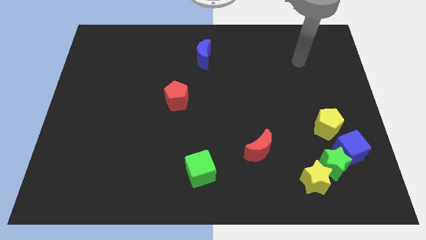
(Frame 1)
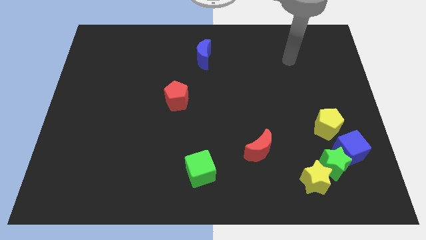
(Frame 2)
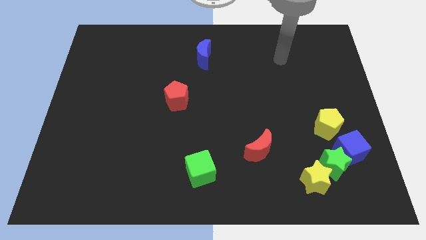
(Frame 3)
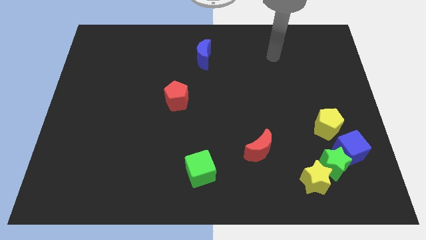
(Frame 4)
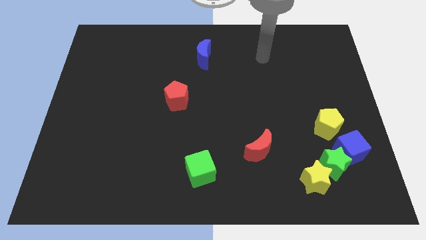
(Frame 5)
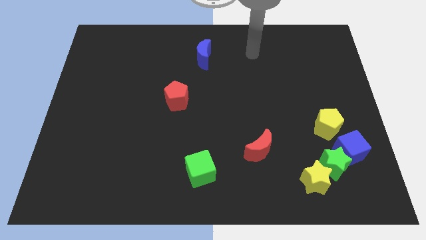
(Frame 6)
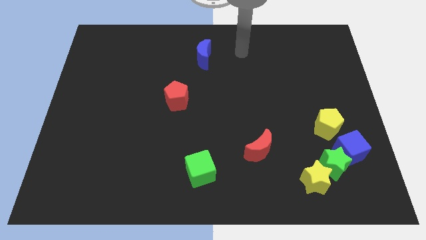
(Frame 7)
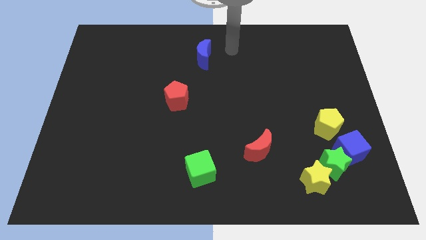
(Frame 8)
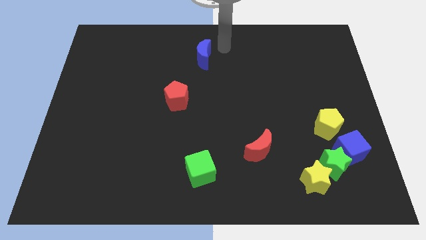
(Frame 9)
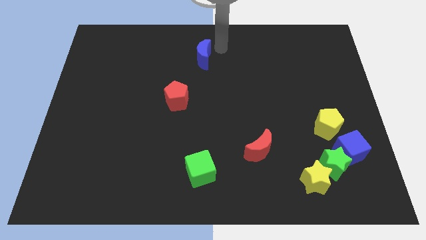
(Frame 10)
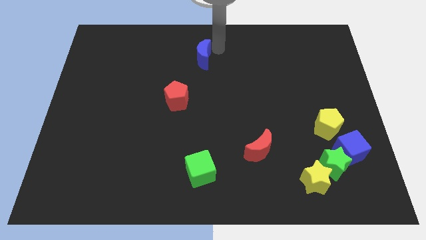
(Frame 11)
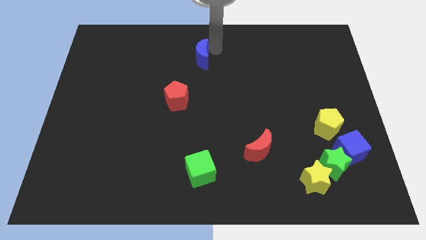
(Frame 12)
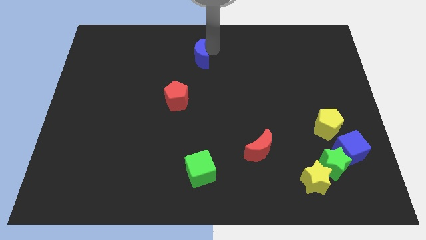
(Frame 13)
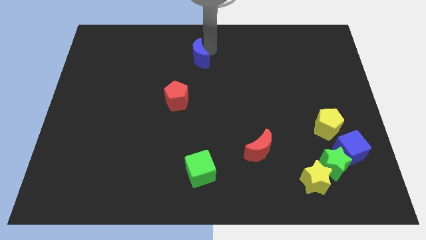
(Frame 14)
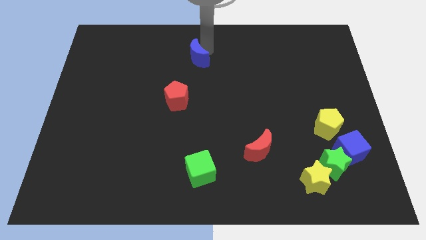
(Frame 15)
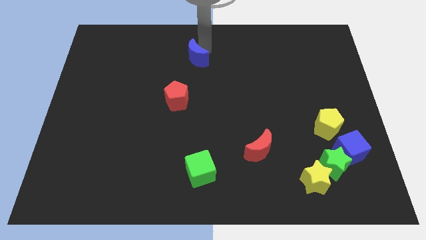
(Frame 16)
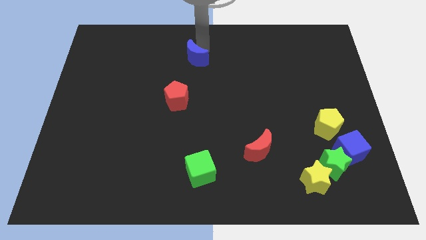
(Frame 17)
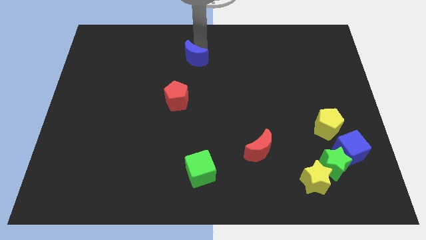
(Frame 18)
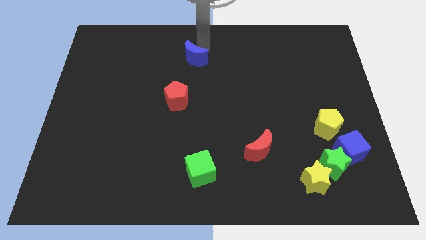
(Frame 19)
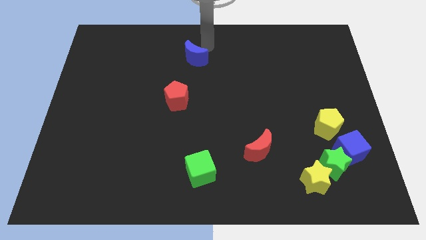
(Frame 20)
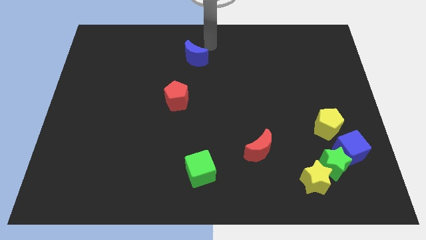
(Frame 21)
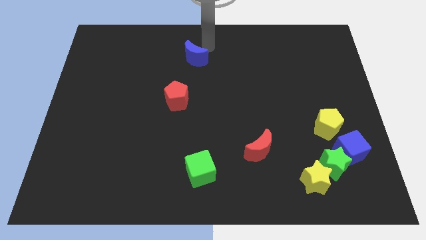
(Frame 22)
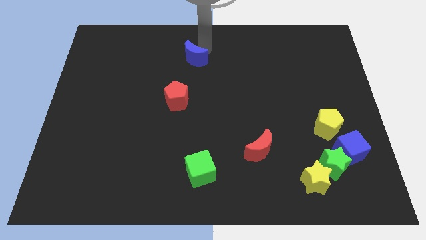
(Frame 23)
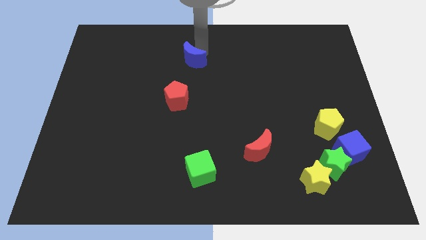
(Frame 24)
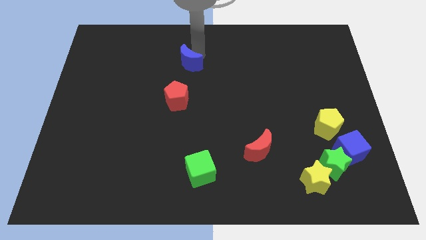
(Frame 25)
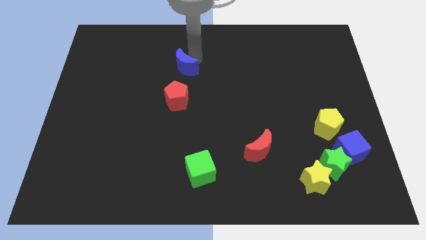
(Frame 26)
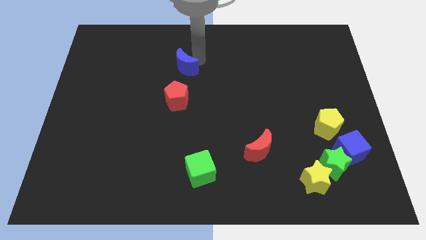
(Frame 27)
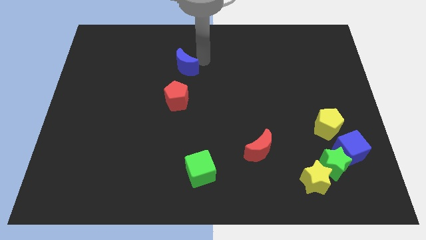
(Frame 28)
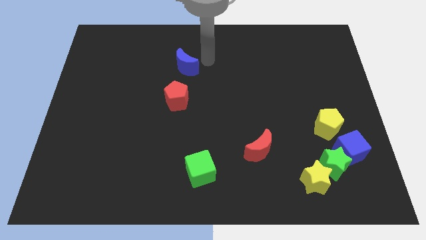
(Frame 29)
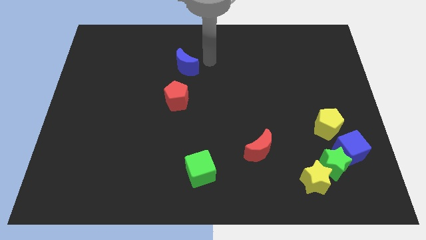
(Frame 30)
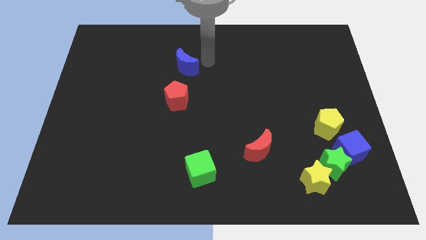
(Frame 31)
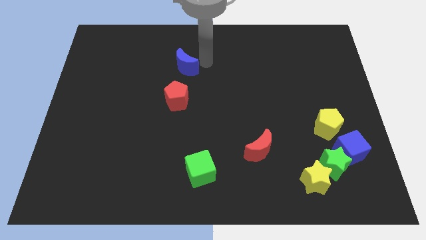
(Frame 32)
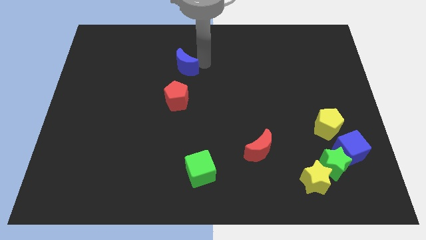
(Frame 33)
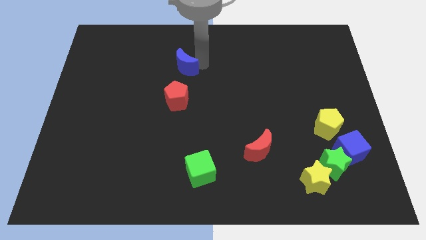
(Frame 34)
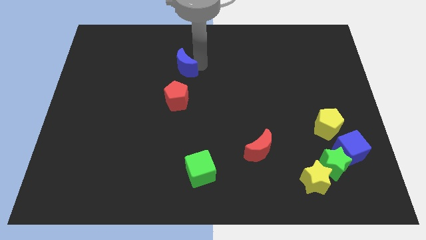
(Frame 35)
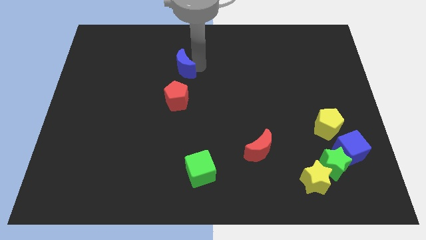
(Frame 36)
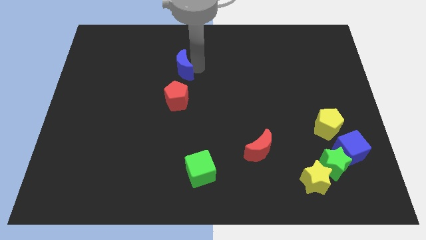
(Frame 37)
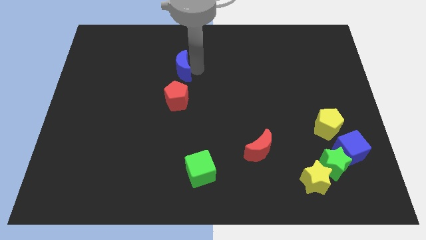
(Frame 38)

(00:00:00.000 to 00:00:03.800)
push the blue moon a little bit diagonally down and to the left

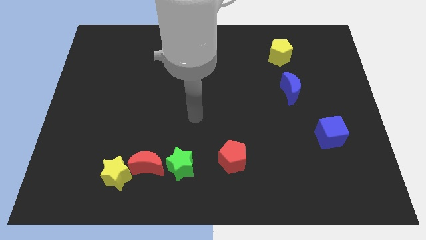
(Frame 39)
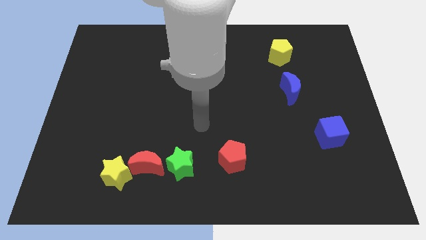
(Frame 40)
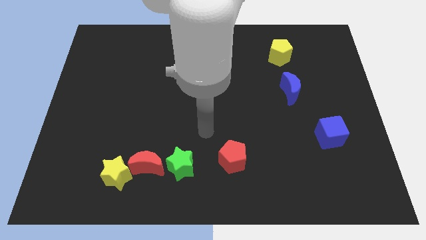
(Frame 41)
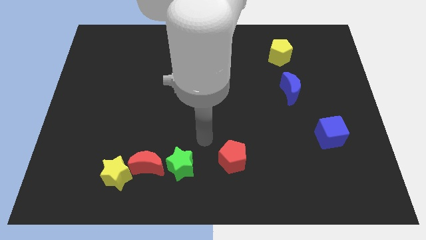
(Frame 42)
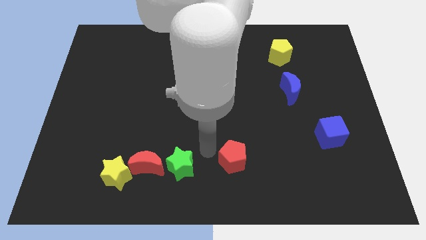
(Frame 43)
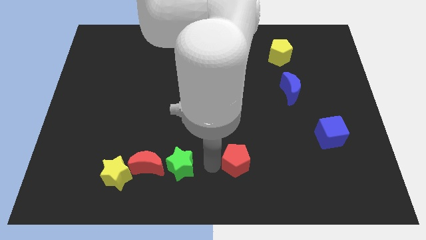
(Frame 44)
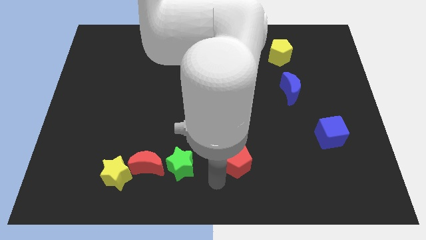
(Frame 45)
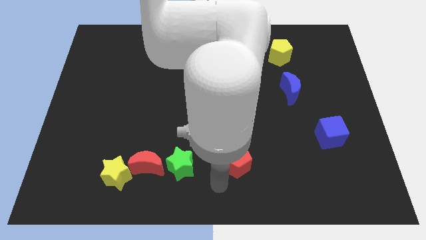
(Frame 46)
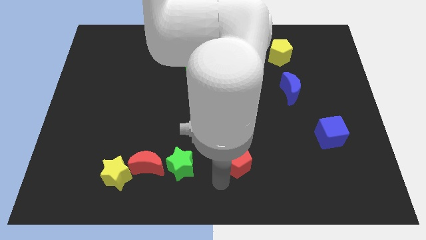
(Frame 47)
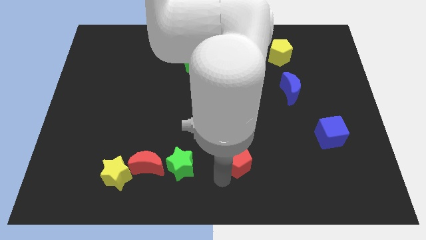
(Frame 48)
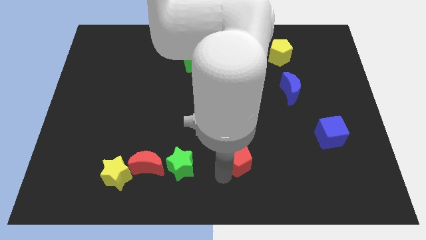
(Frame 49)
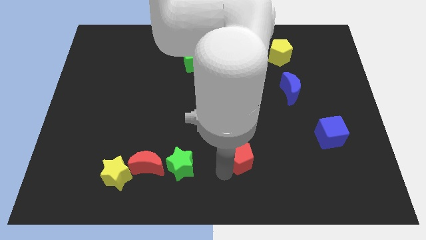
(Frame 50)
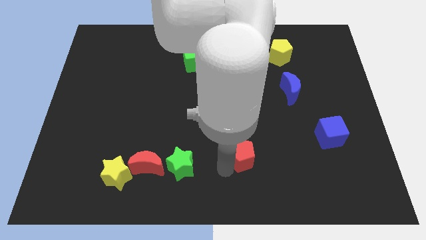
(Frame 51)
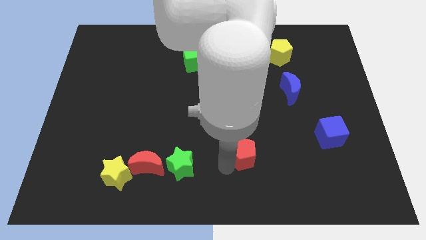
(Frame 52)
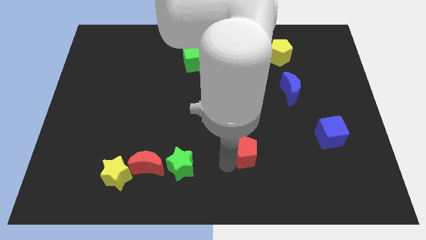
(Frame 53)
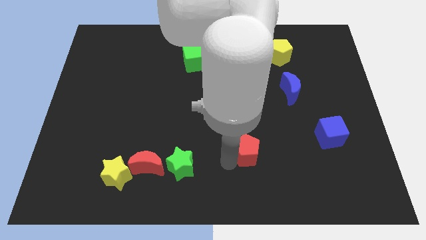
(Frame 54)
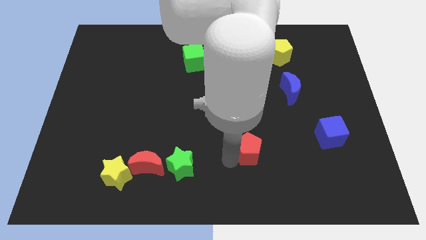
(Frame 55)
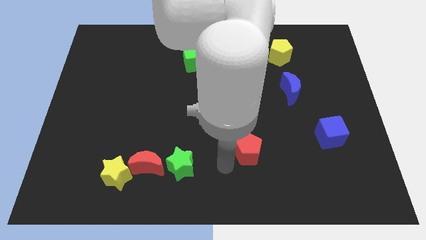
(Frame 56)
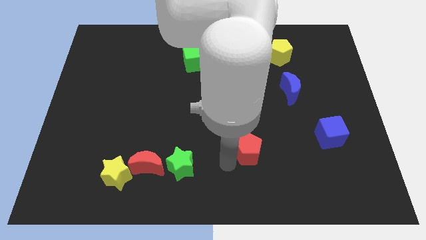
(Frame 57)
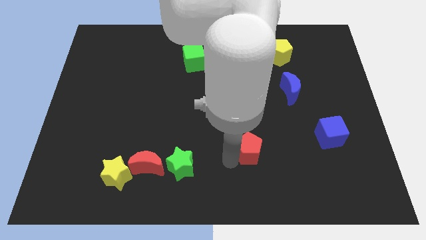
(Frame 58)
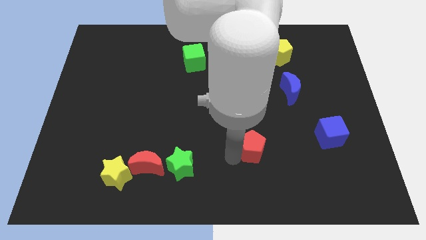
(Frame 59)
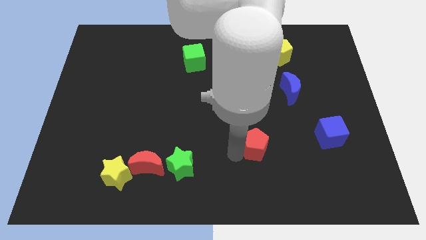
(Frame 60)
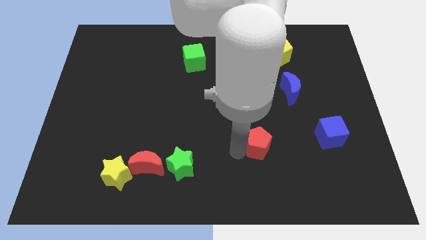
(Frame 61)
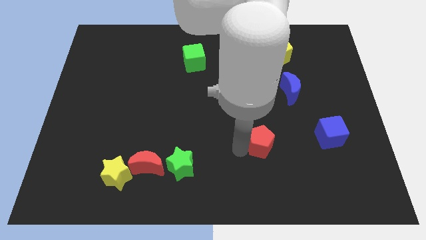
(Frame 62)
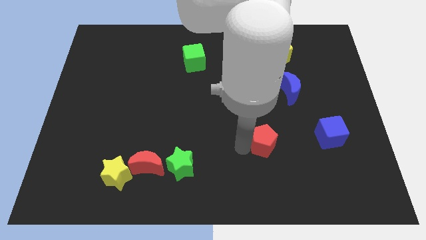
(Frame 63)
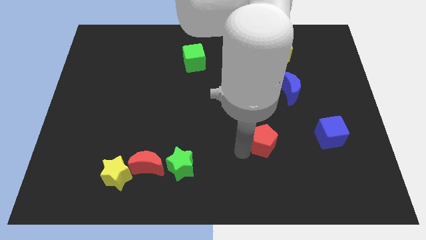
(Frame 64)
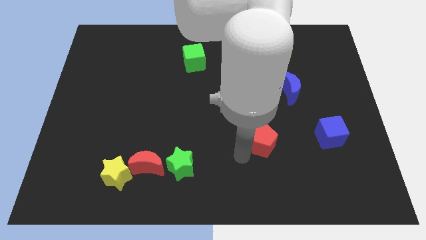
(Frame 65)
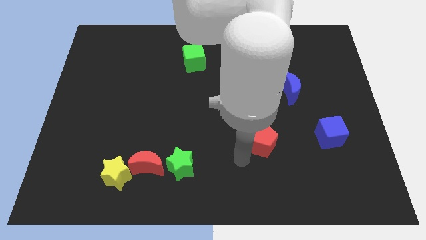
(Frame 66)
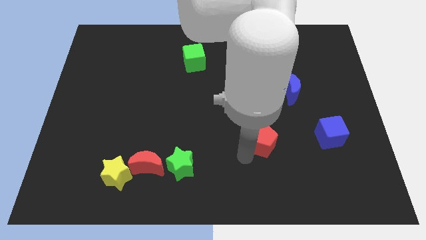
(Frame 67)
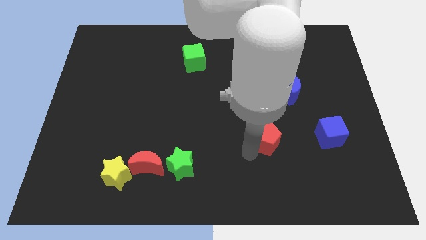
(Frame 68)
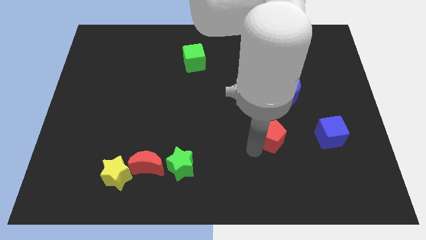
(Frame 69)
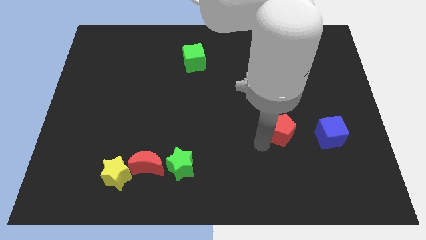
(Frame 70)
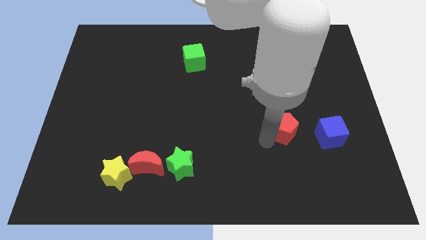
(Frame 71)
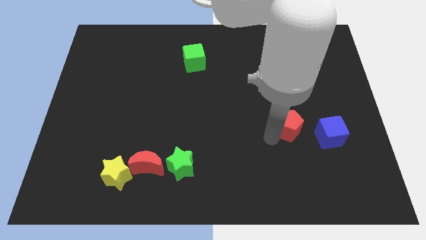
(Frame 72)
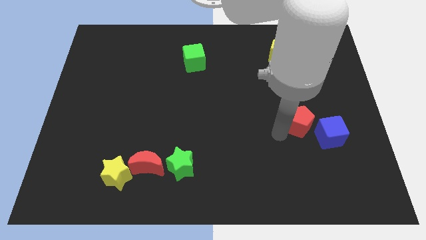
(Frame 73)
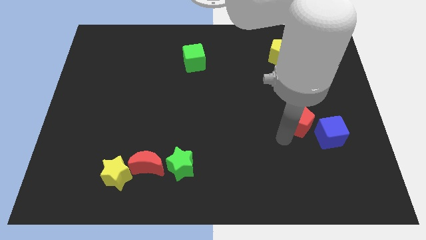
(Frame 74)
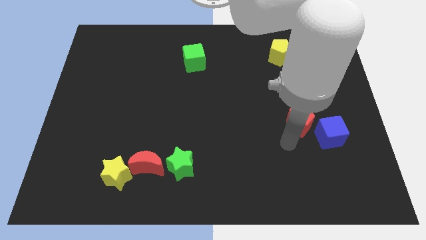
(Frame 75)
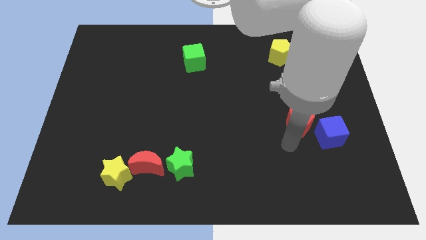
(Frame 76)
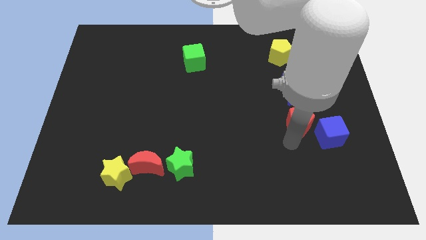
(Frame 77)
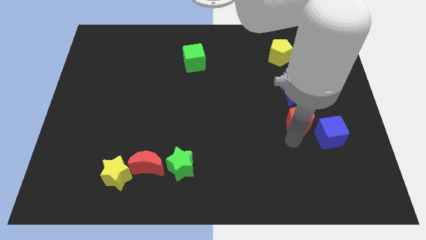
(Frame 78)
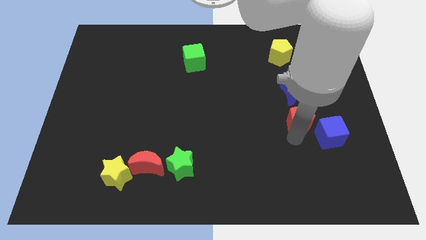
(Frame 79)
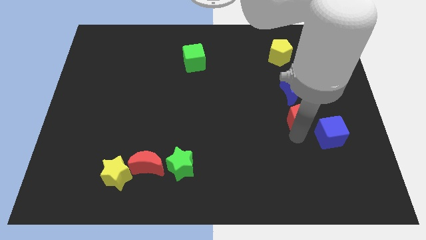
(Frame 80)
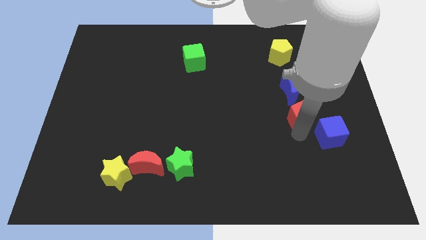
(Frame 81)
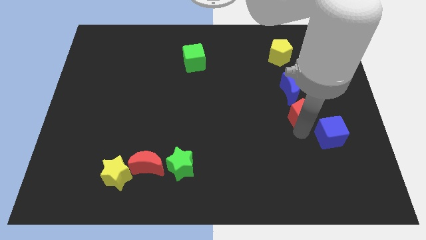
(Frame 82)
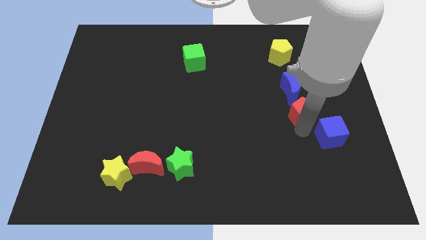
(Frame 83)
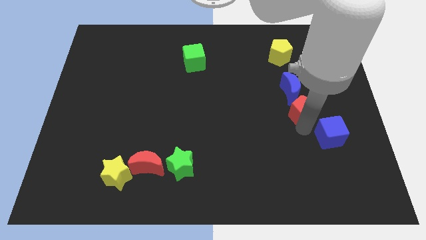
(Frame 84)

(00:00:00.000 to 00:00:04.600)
slide the red pentagon up and right diagonally
